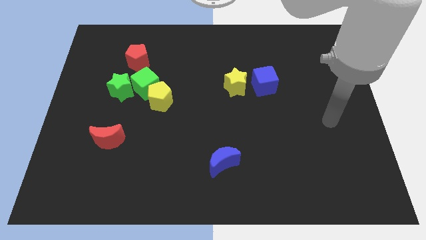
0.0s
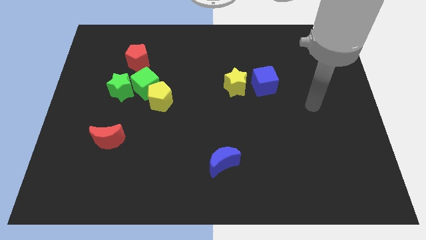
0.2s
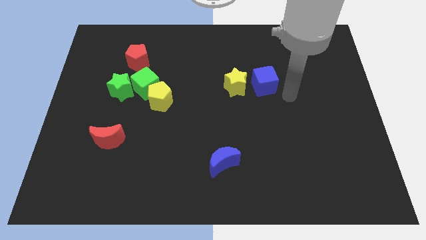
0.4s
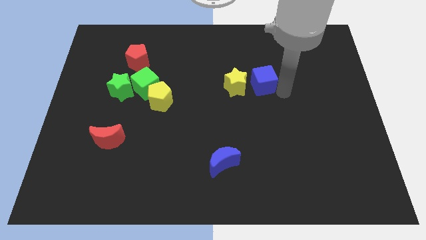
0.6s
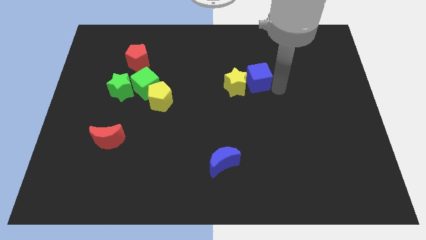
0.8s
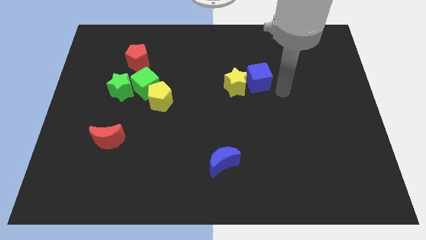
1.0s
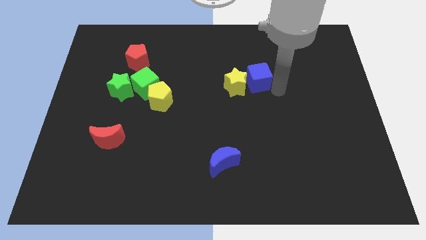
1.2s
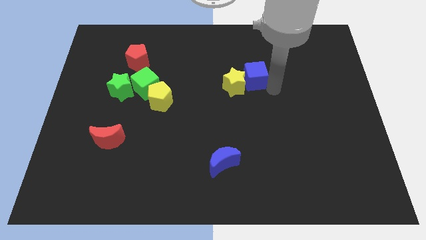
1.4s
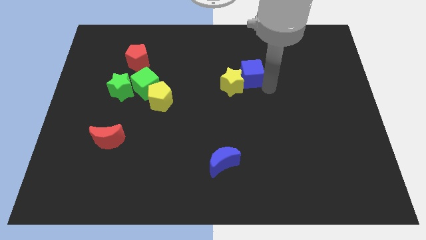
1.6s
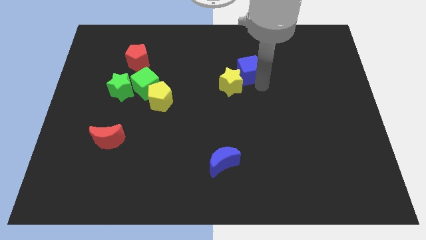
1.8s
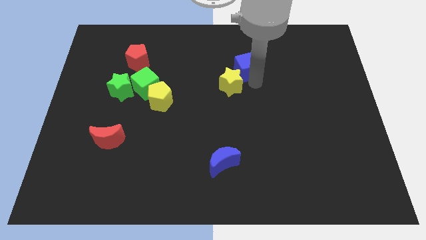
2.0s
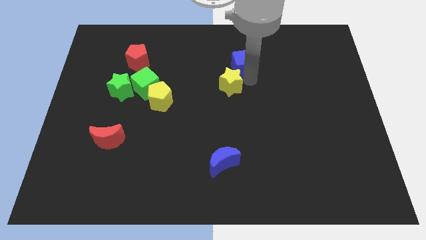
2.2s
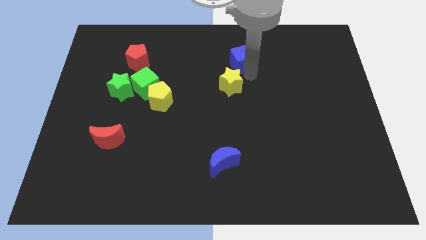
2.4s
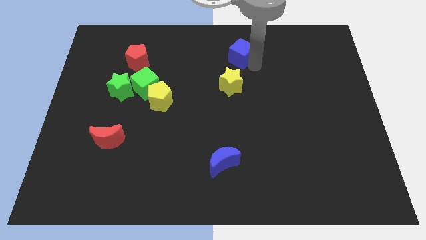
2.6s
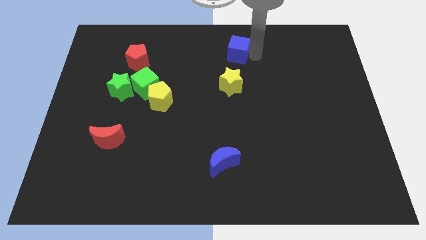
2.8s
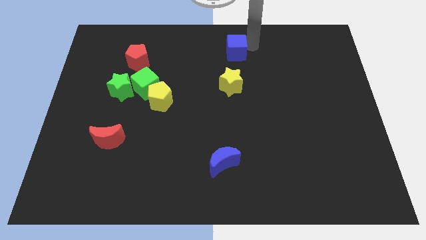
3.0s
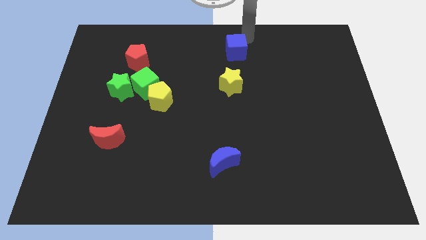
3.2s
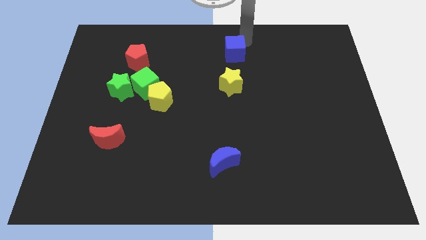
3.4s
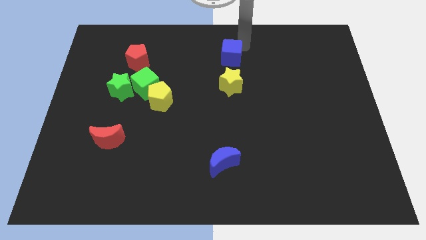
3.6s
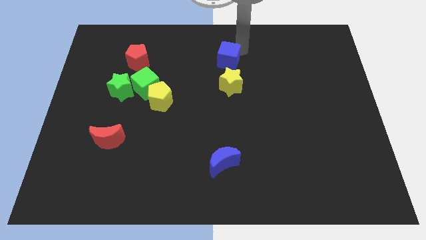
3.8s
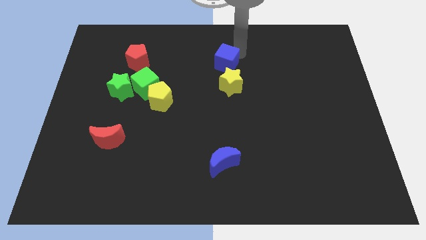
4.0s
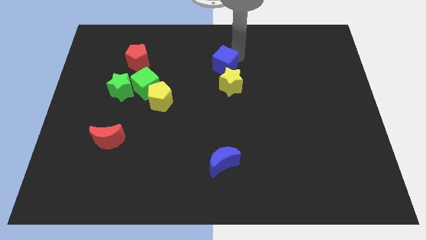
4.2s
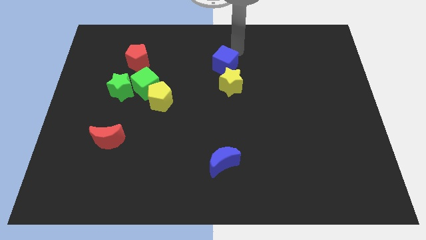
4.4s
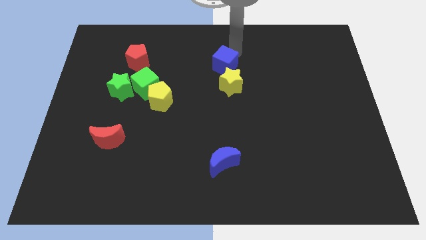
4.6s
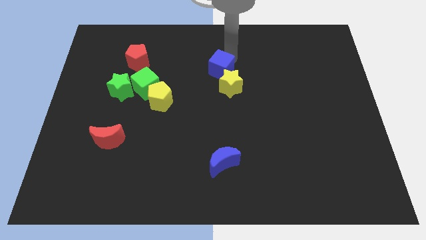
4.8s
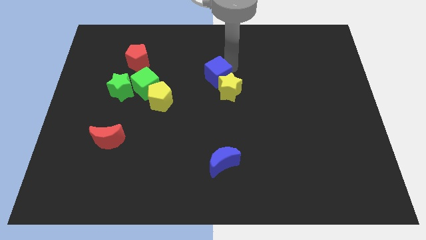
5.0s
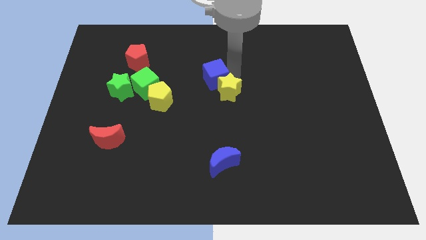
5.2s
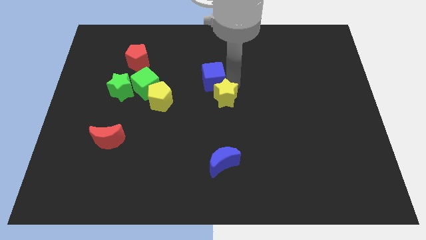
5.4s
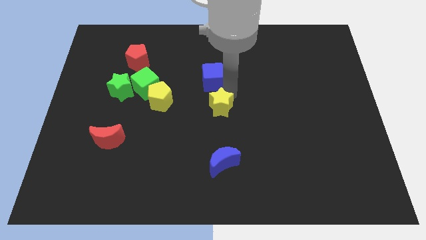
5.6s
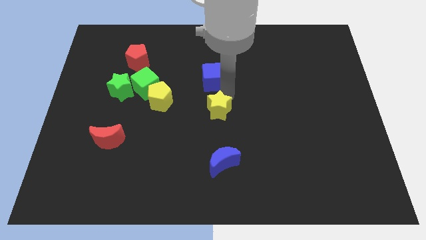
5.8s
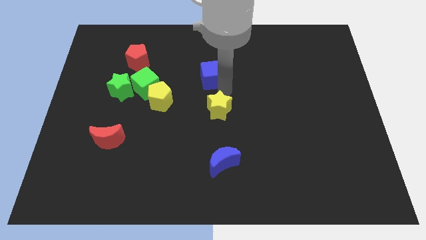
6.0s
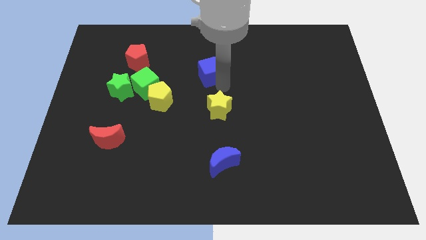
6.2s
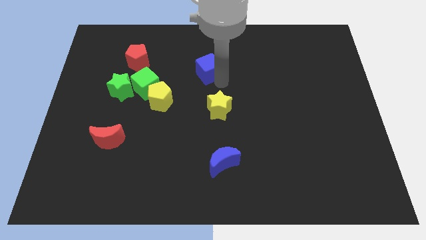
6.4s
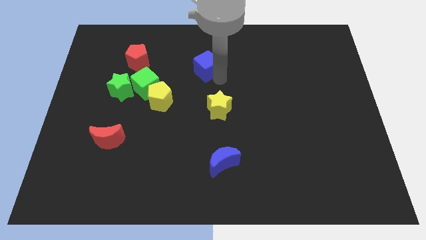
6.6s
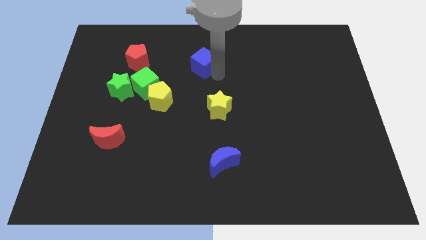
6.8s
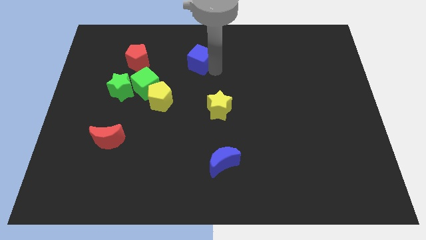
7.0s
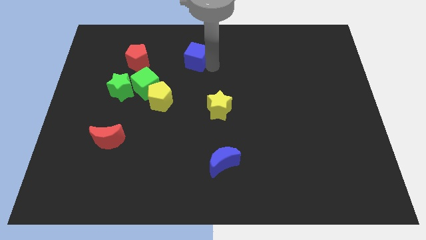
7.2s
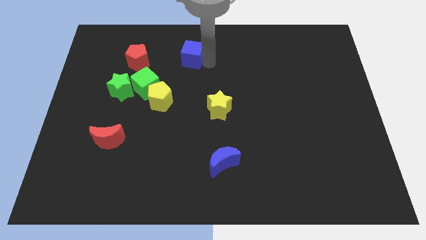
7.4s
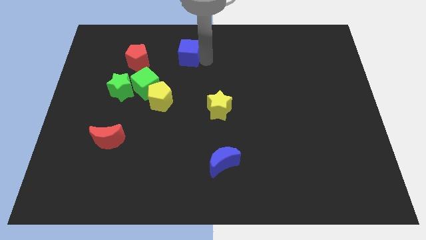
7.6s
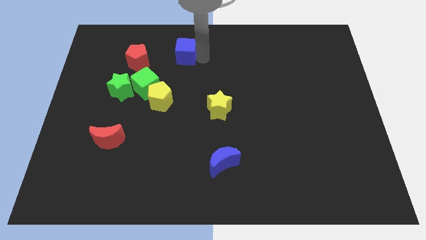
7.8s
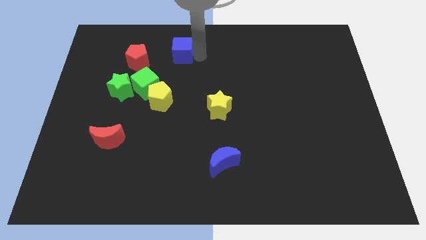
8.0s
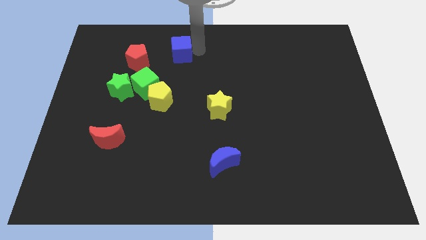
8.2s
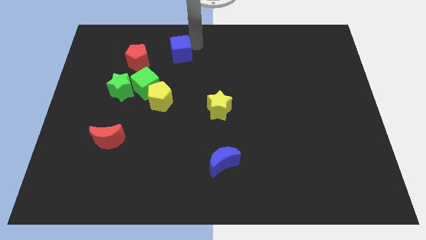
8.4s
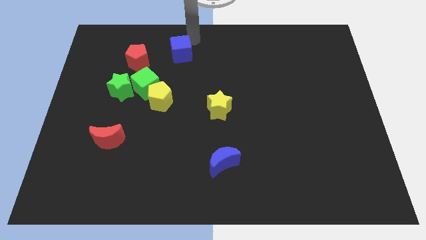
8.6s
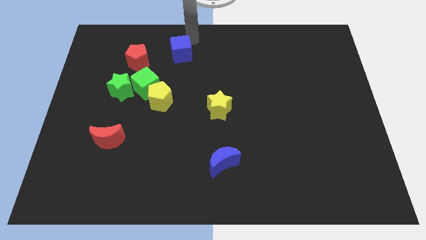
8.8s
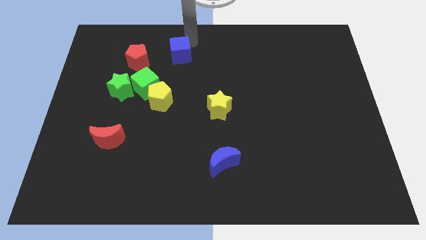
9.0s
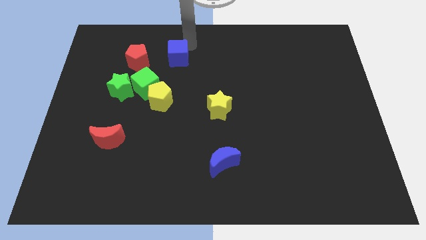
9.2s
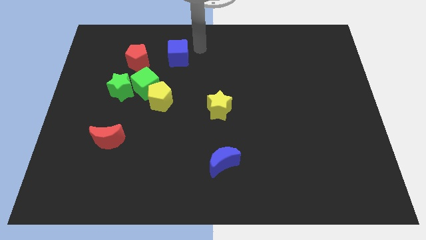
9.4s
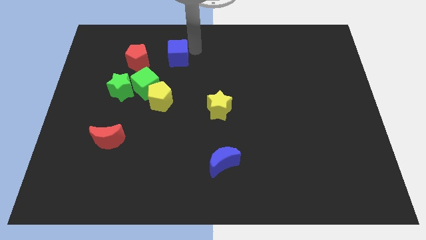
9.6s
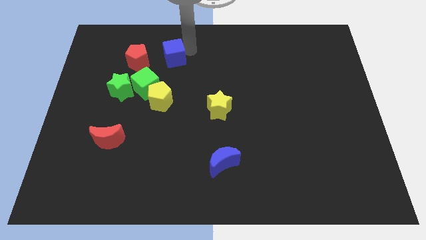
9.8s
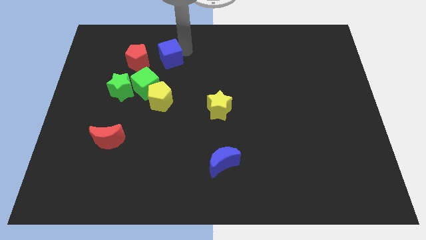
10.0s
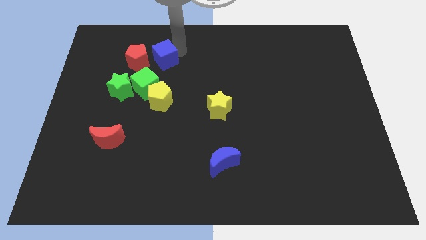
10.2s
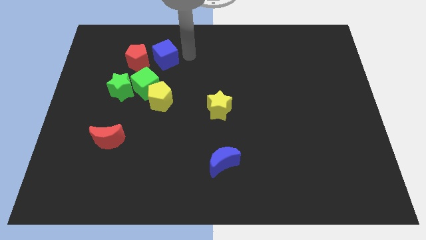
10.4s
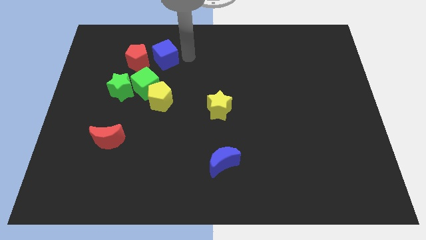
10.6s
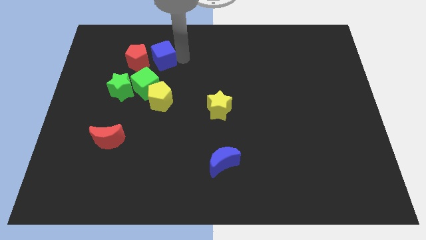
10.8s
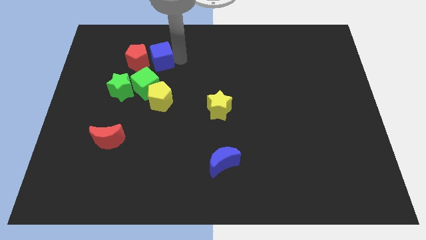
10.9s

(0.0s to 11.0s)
move the blue cube close to the red pentagon

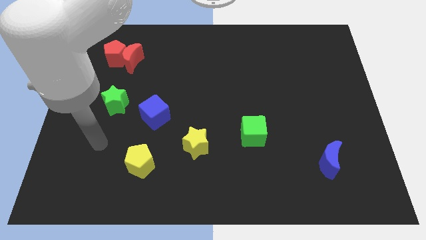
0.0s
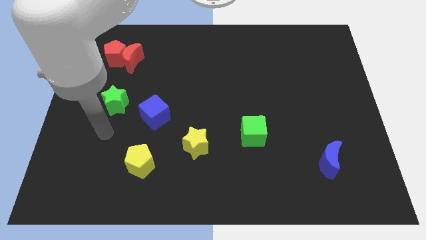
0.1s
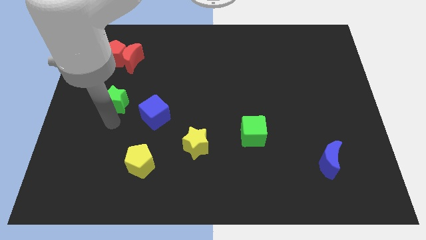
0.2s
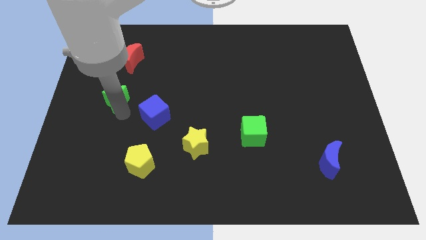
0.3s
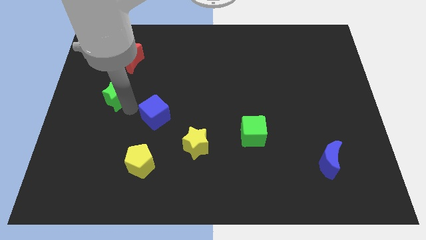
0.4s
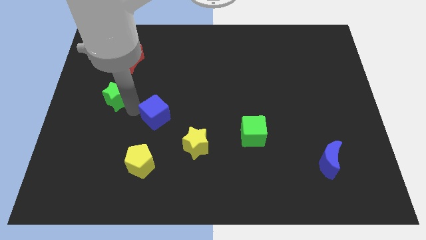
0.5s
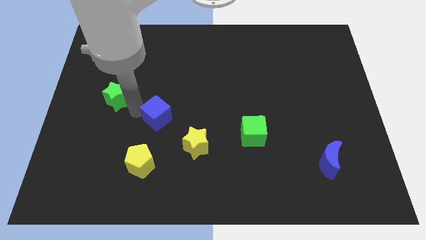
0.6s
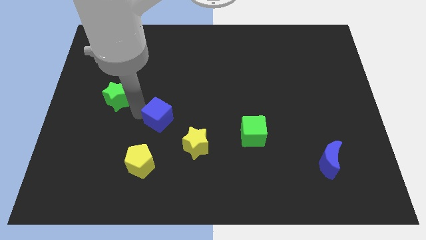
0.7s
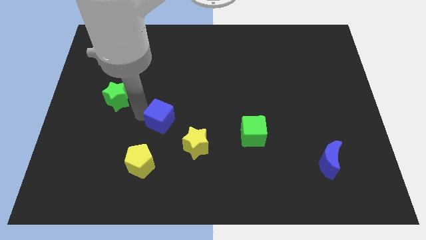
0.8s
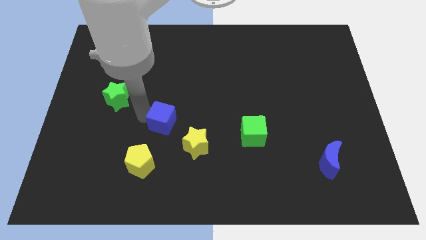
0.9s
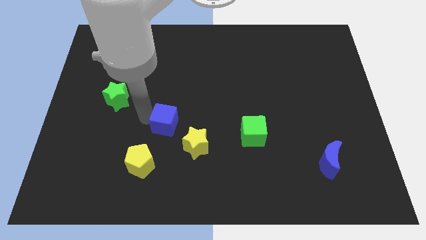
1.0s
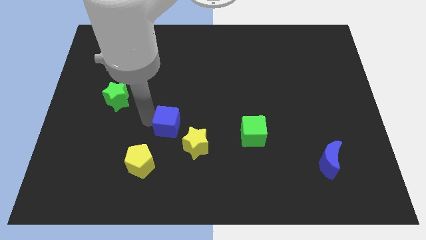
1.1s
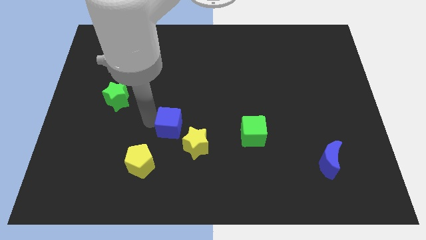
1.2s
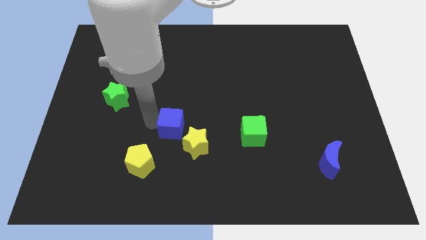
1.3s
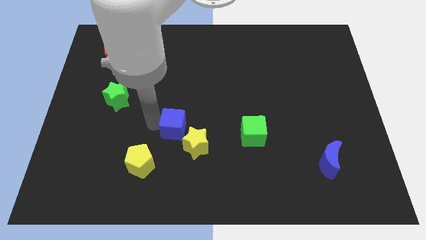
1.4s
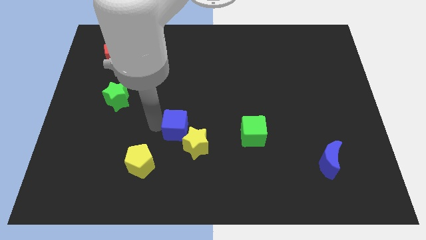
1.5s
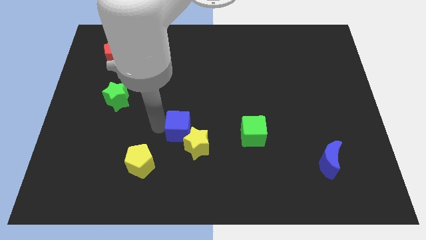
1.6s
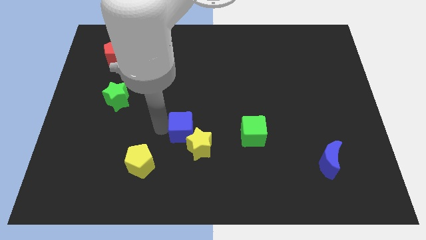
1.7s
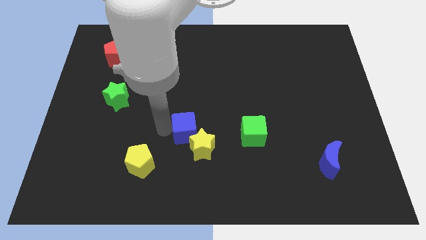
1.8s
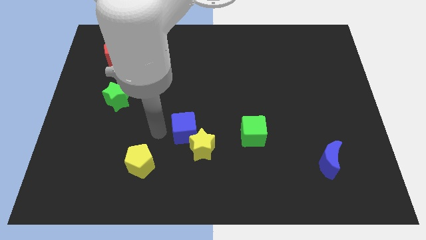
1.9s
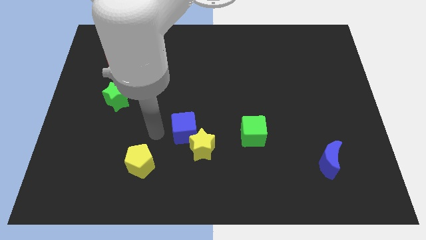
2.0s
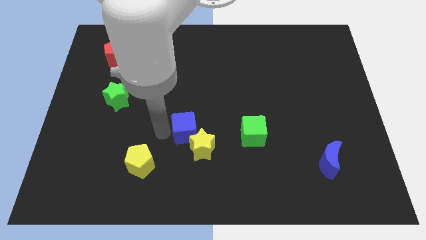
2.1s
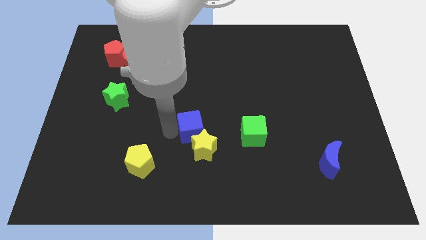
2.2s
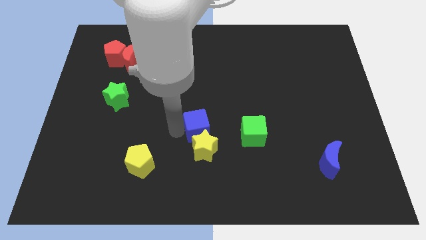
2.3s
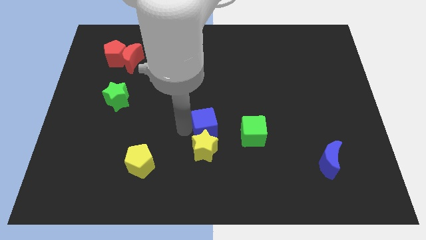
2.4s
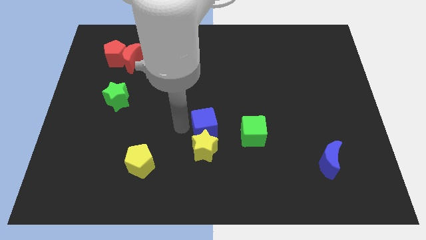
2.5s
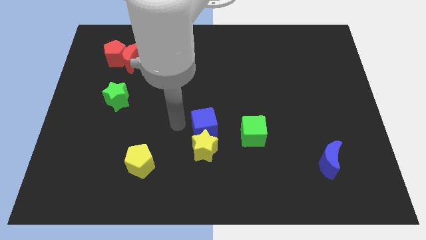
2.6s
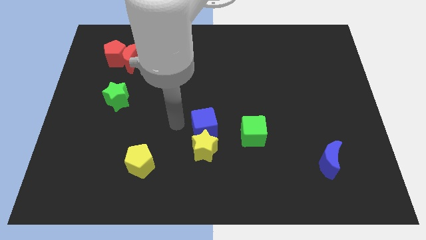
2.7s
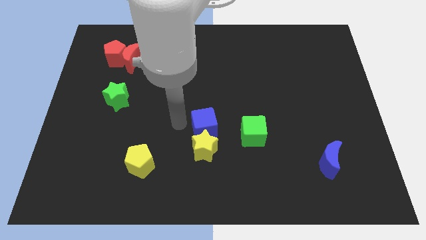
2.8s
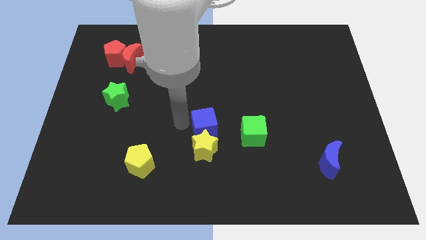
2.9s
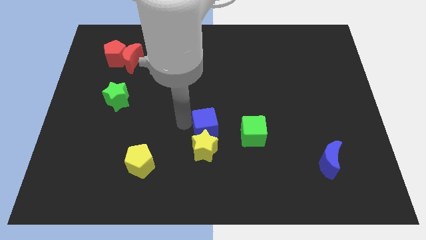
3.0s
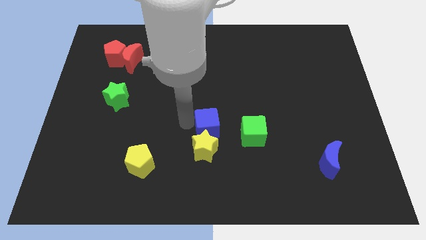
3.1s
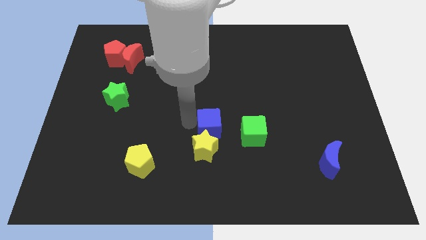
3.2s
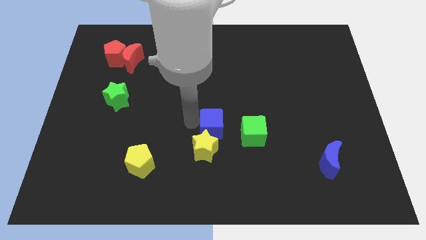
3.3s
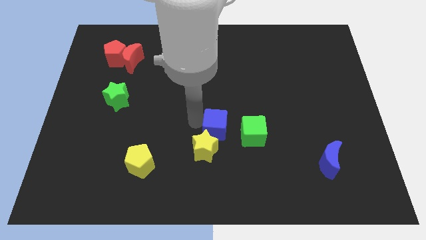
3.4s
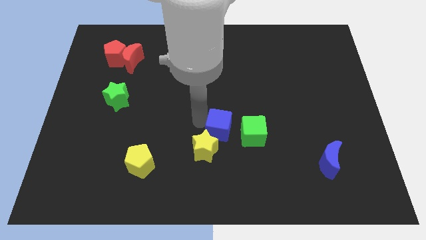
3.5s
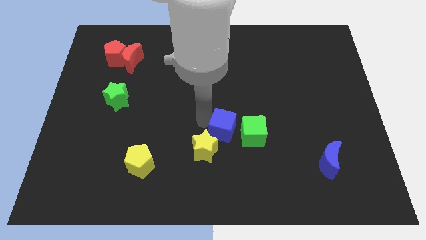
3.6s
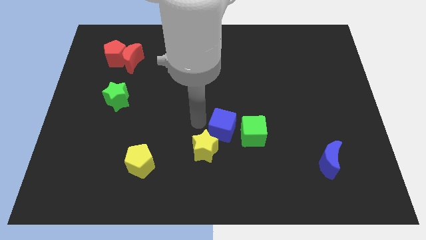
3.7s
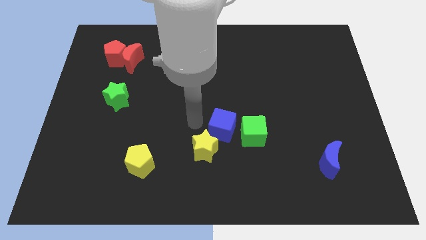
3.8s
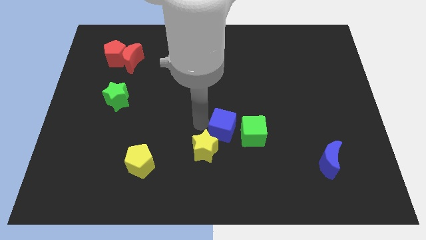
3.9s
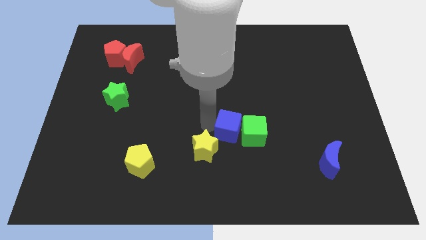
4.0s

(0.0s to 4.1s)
slide the blue cube close to the green cube
